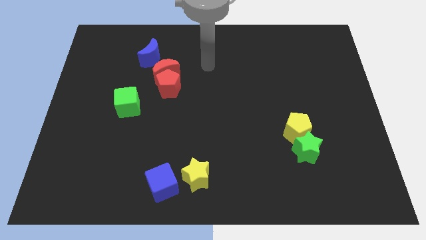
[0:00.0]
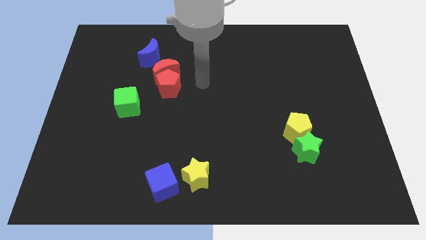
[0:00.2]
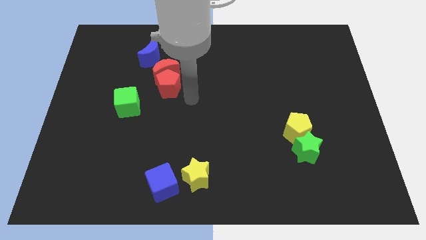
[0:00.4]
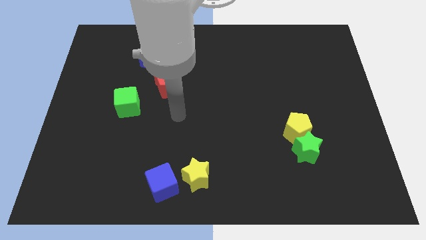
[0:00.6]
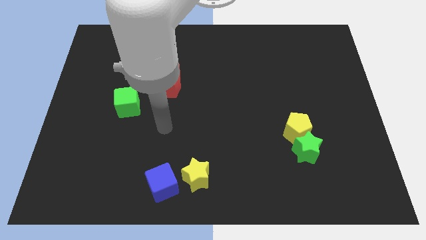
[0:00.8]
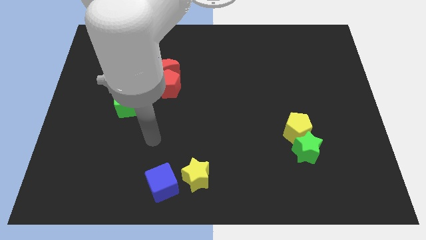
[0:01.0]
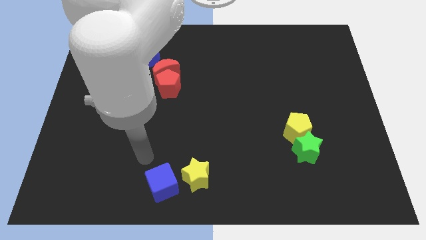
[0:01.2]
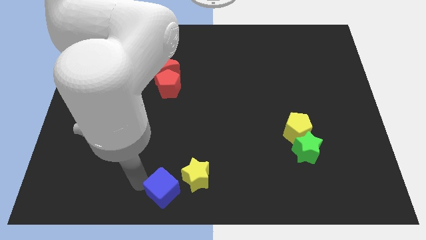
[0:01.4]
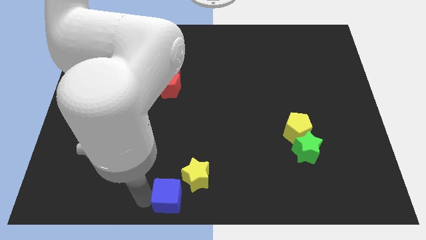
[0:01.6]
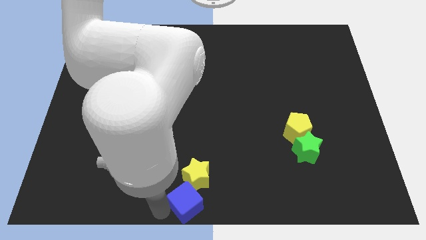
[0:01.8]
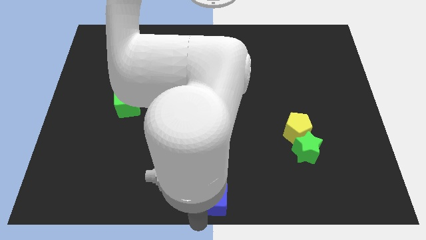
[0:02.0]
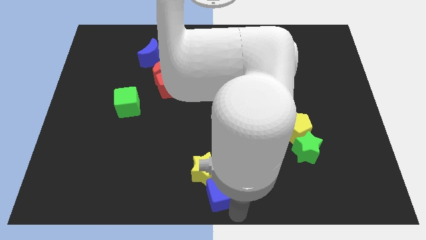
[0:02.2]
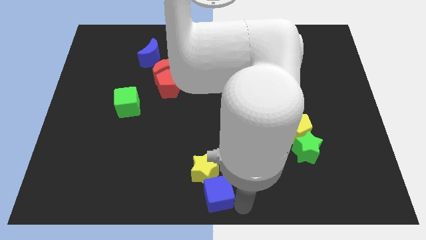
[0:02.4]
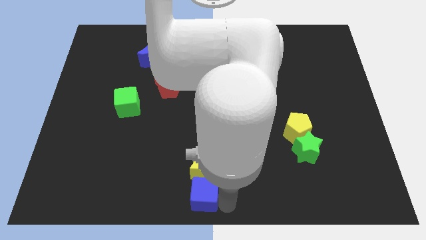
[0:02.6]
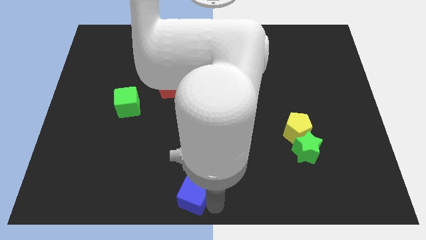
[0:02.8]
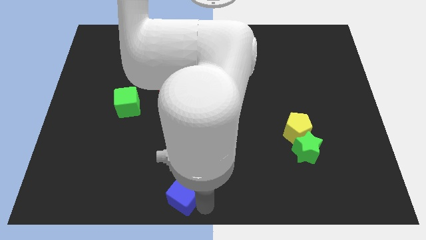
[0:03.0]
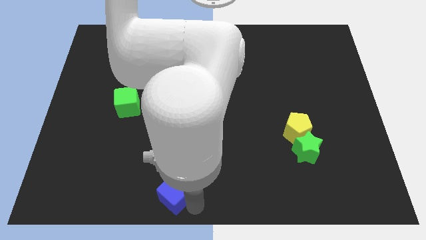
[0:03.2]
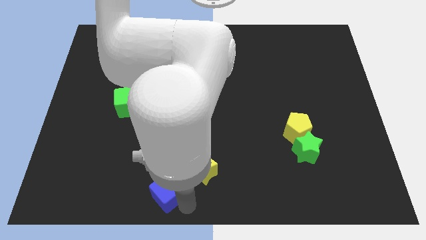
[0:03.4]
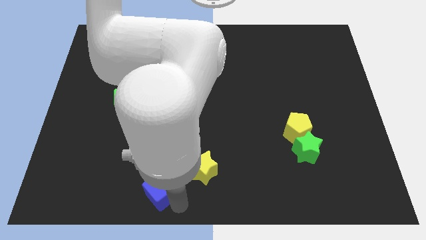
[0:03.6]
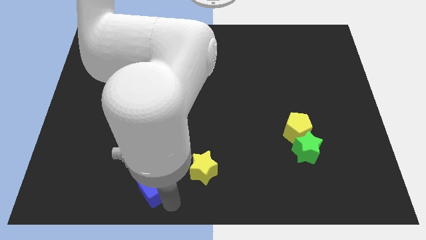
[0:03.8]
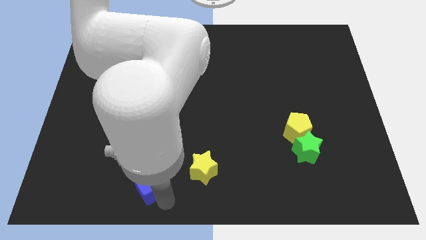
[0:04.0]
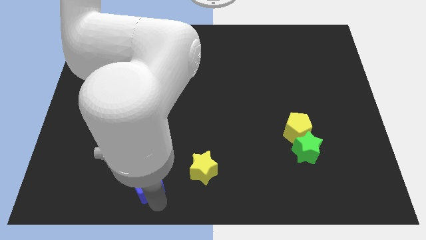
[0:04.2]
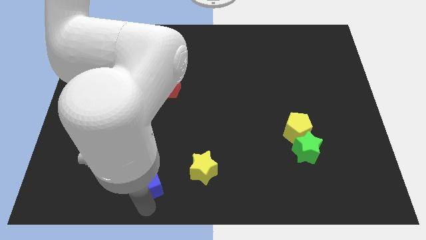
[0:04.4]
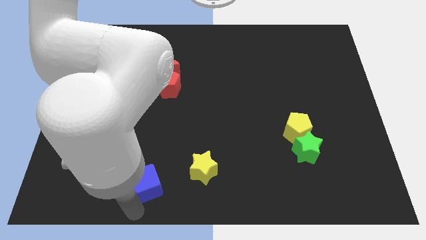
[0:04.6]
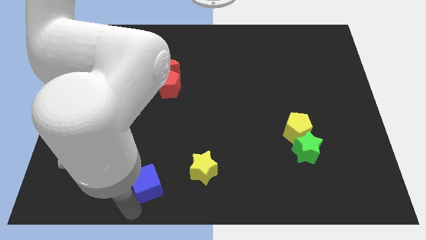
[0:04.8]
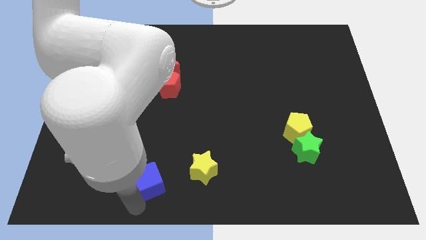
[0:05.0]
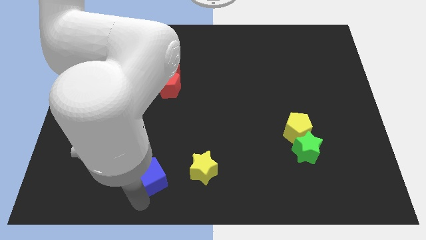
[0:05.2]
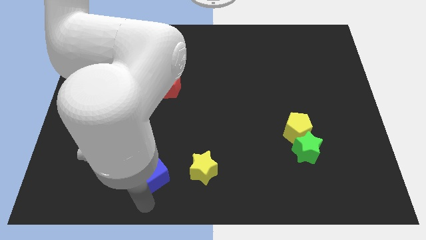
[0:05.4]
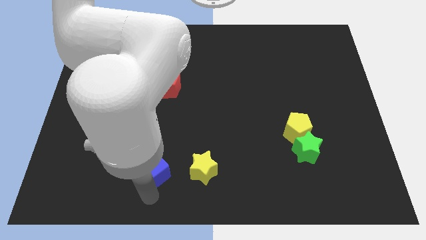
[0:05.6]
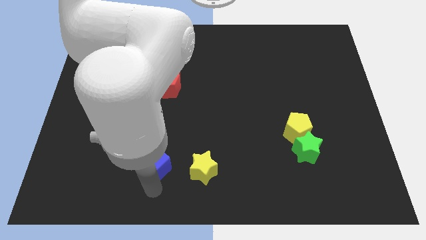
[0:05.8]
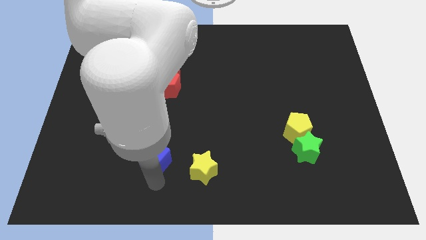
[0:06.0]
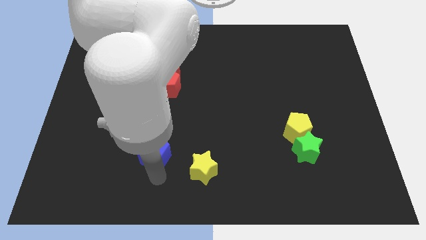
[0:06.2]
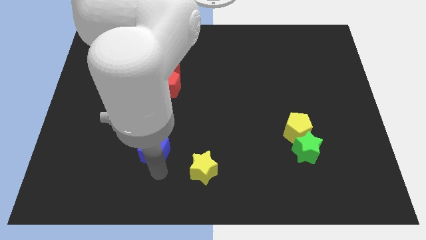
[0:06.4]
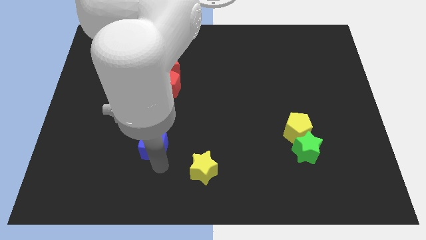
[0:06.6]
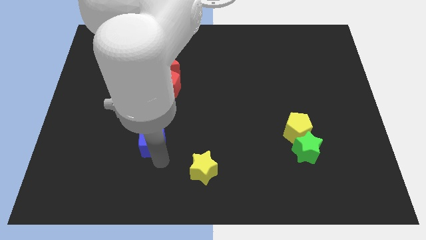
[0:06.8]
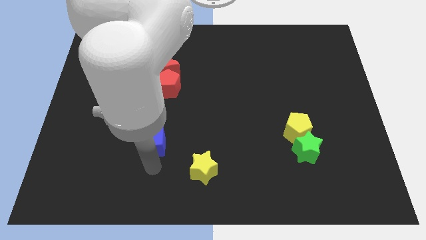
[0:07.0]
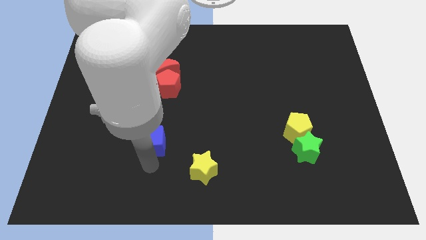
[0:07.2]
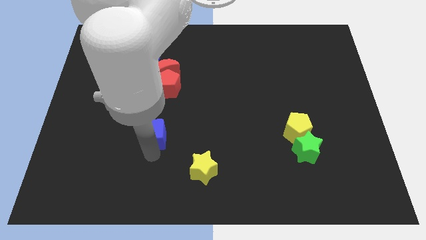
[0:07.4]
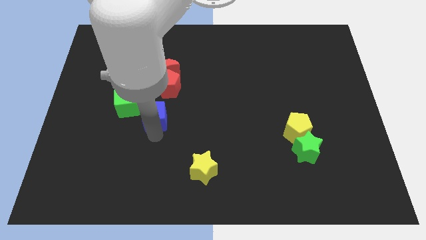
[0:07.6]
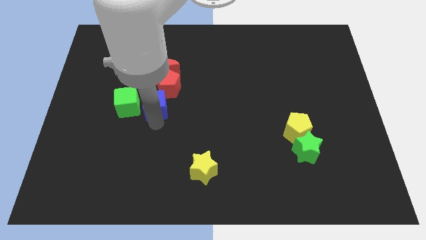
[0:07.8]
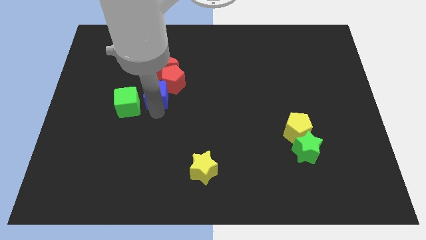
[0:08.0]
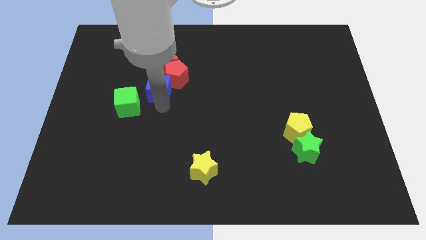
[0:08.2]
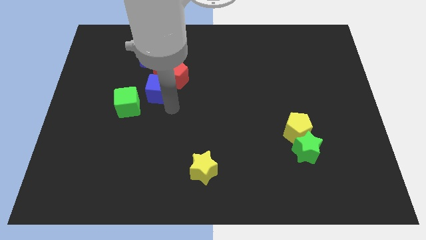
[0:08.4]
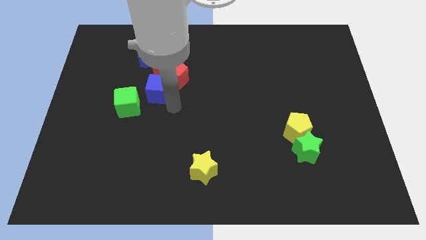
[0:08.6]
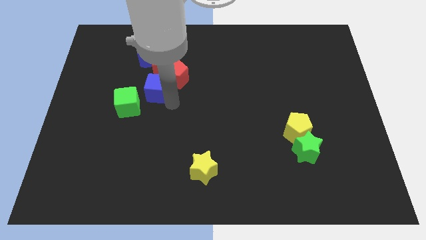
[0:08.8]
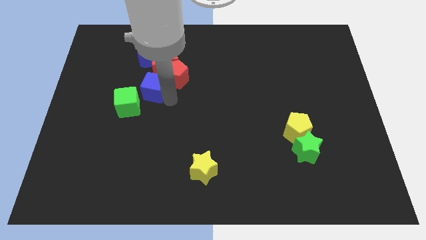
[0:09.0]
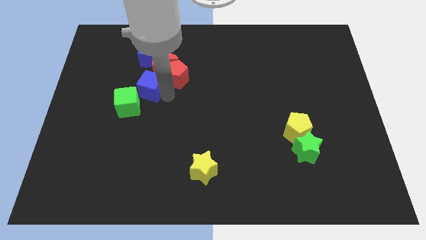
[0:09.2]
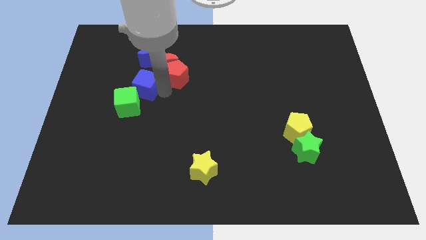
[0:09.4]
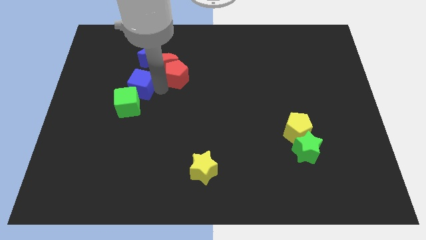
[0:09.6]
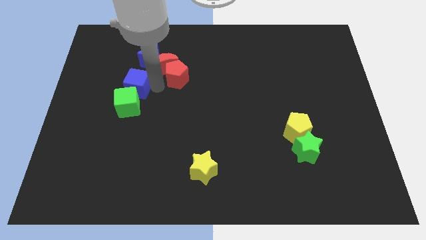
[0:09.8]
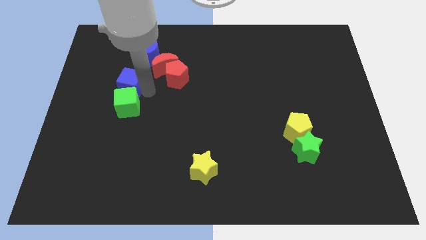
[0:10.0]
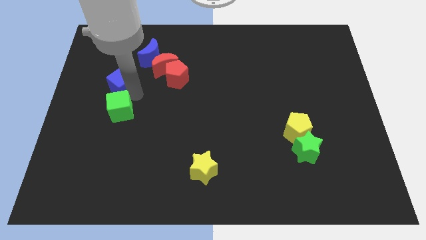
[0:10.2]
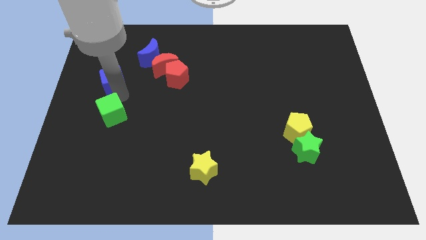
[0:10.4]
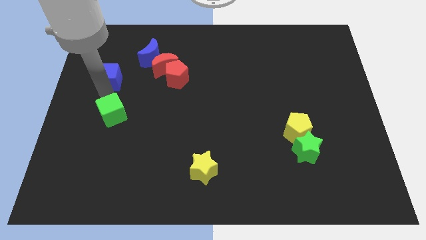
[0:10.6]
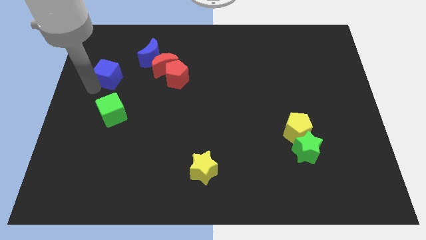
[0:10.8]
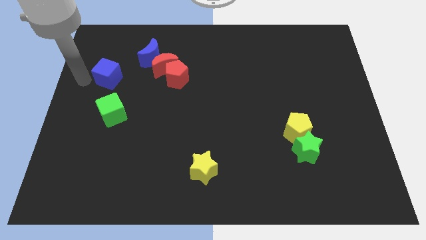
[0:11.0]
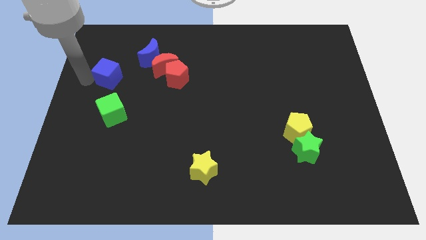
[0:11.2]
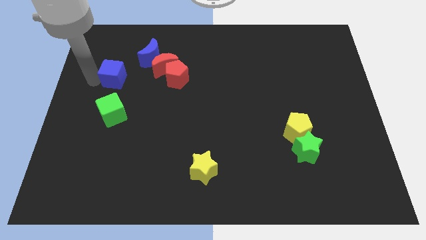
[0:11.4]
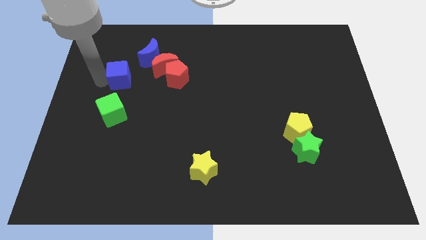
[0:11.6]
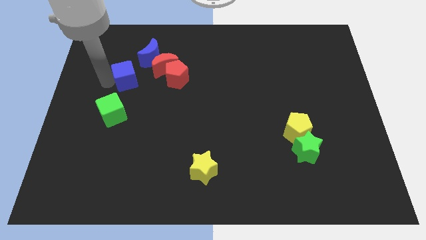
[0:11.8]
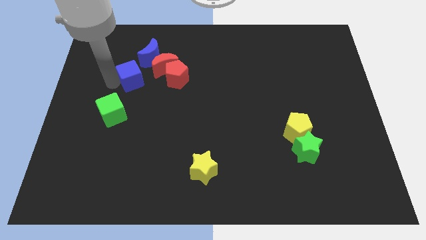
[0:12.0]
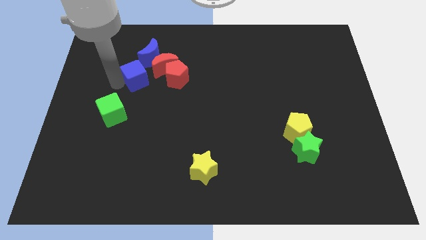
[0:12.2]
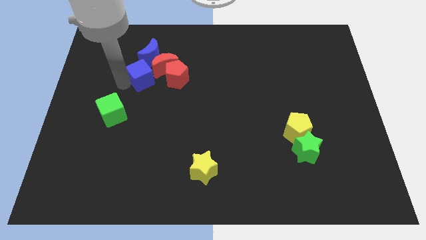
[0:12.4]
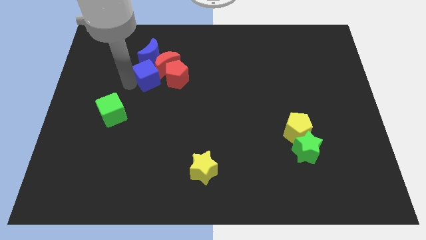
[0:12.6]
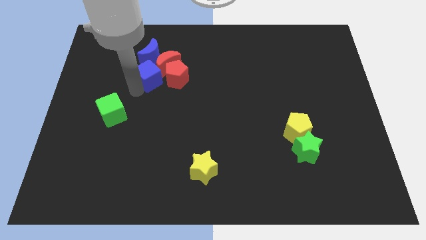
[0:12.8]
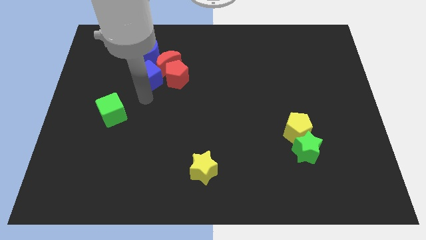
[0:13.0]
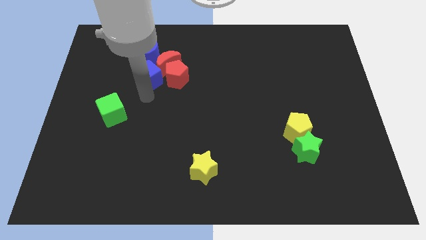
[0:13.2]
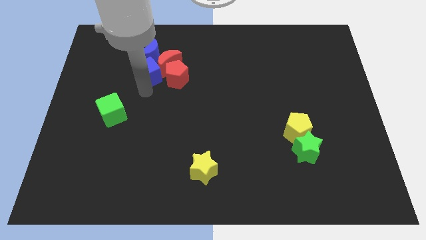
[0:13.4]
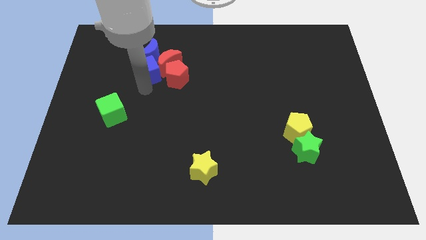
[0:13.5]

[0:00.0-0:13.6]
push the blue cube next to the blue moon

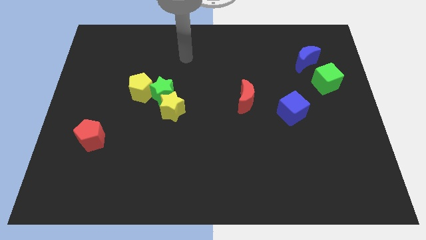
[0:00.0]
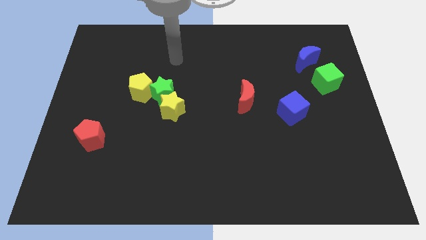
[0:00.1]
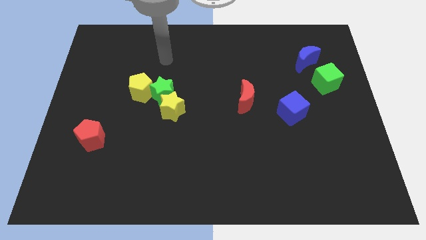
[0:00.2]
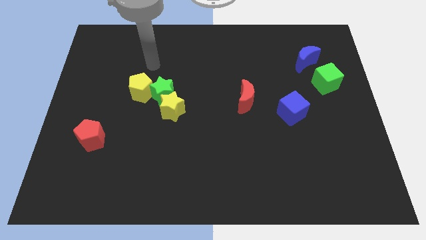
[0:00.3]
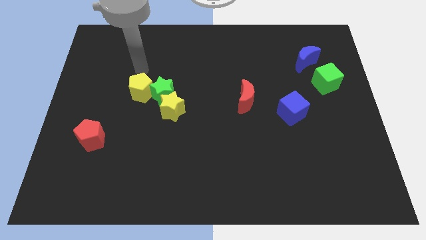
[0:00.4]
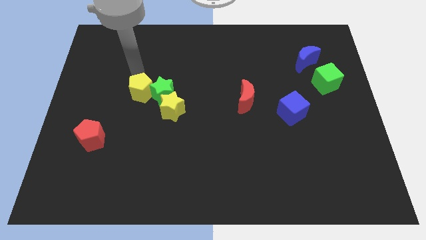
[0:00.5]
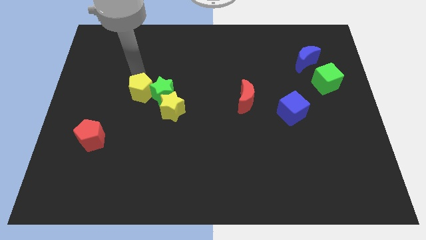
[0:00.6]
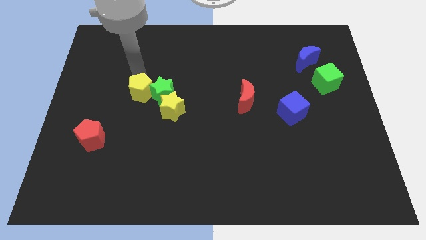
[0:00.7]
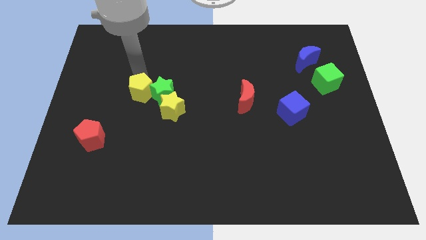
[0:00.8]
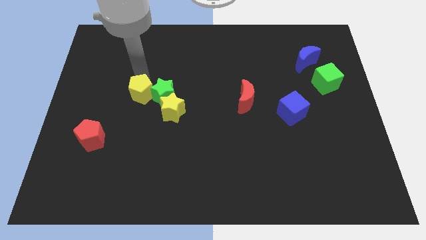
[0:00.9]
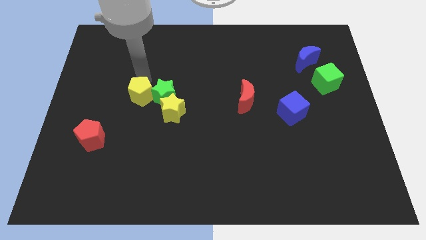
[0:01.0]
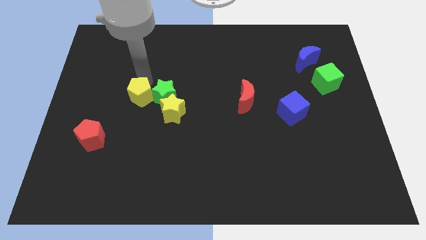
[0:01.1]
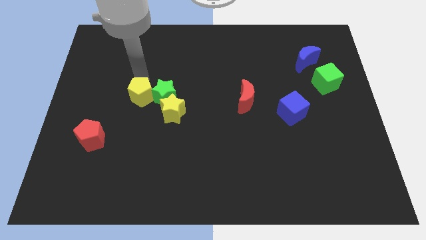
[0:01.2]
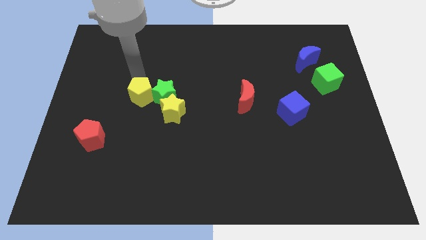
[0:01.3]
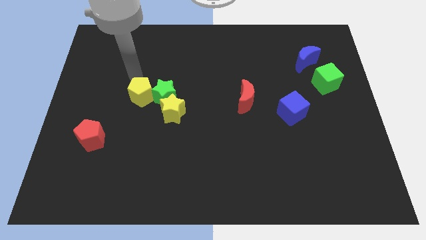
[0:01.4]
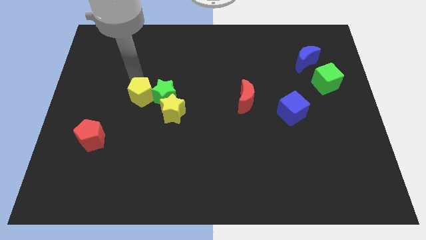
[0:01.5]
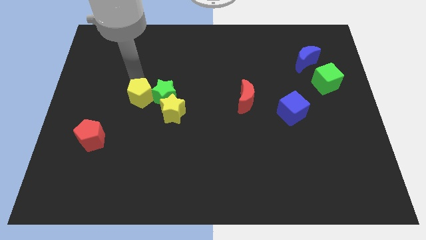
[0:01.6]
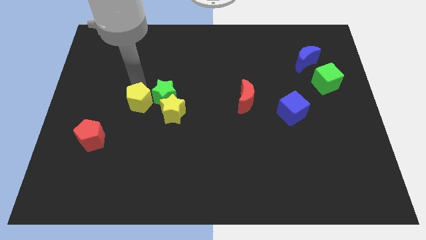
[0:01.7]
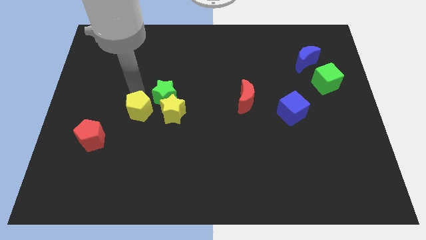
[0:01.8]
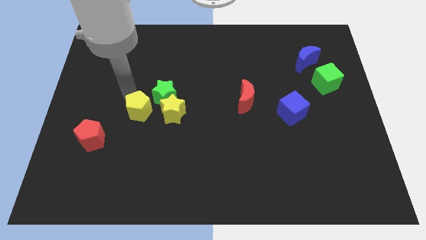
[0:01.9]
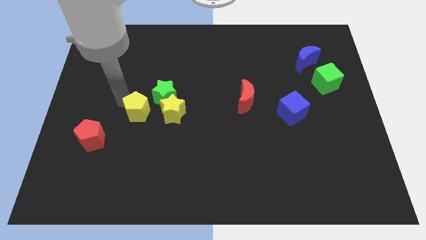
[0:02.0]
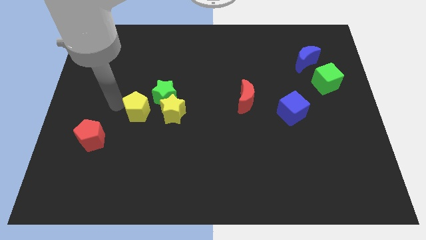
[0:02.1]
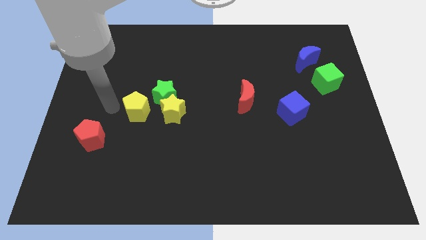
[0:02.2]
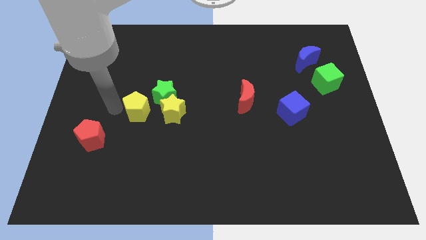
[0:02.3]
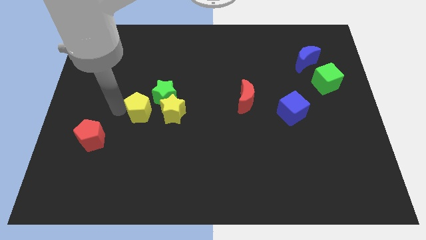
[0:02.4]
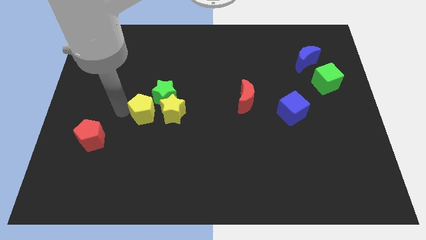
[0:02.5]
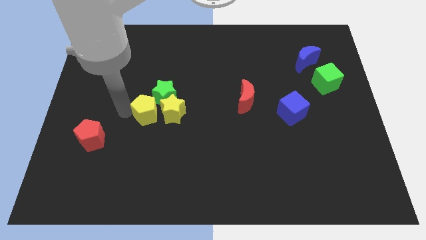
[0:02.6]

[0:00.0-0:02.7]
push the yellow pentagon towards the yellow star
